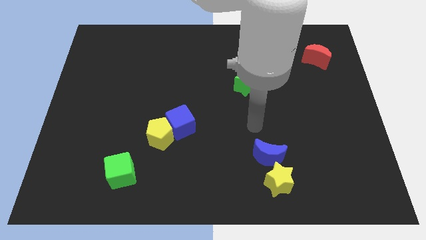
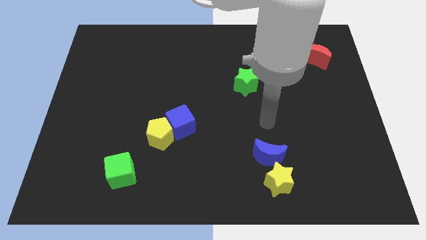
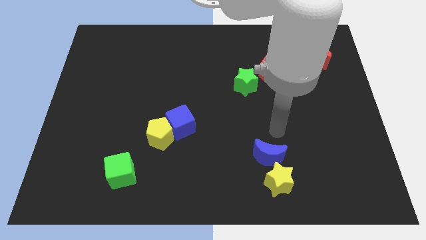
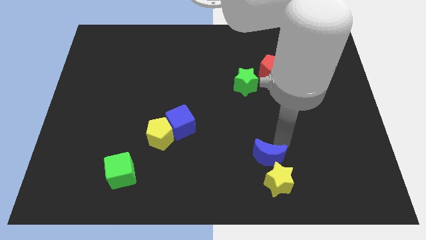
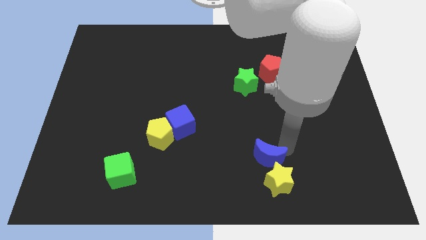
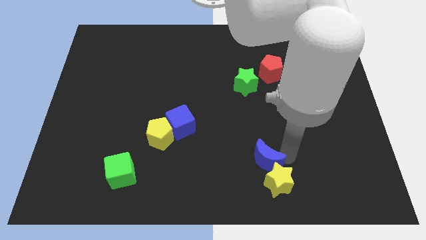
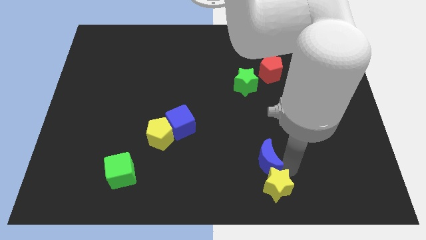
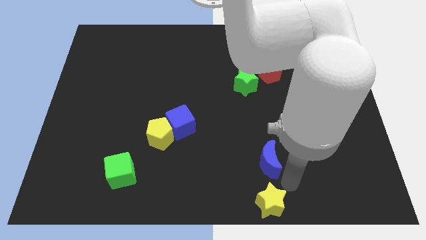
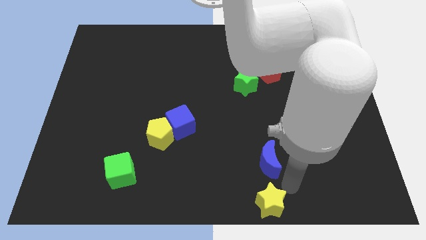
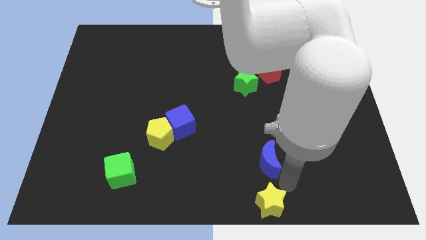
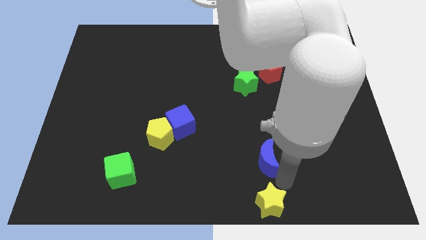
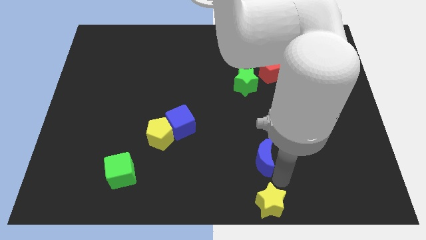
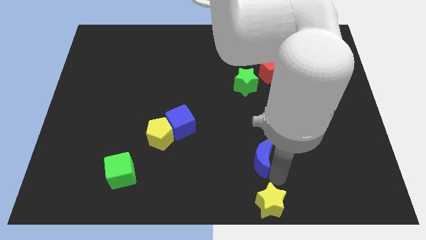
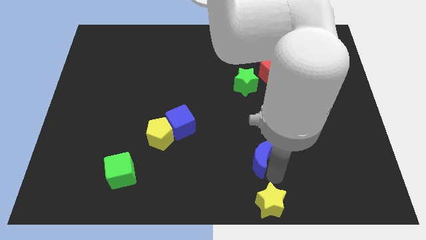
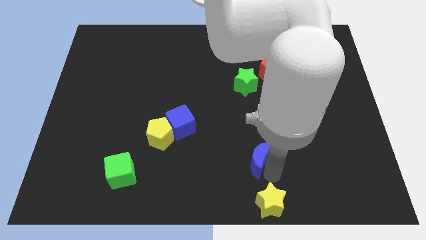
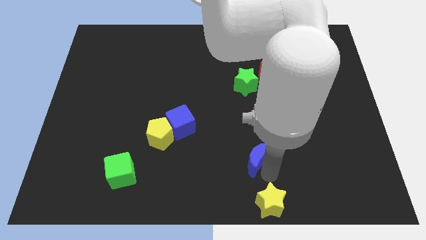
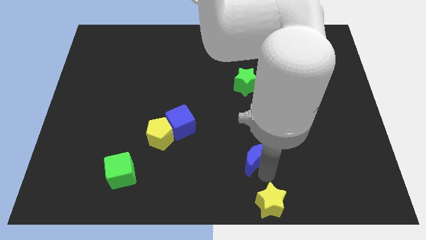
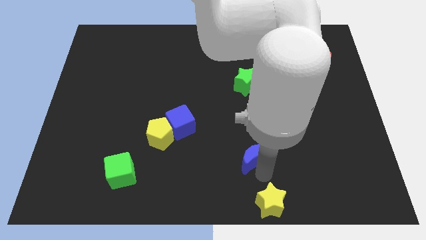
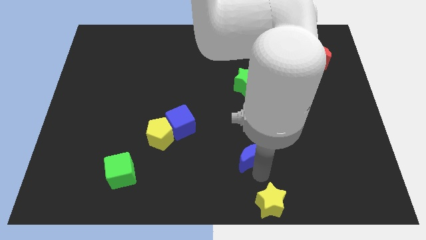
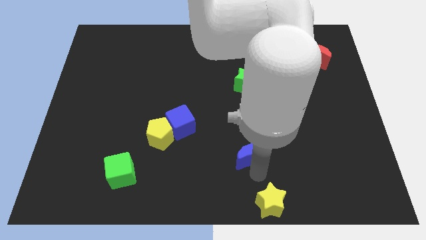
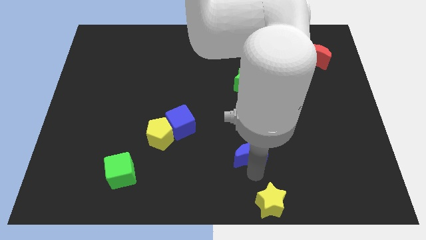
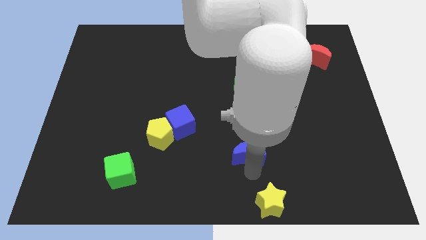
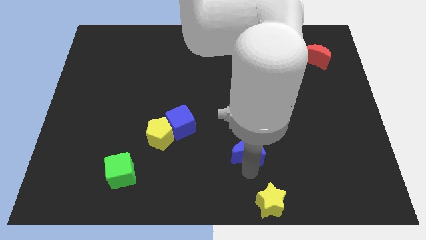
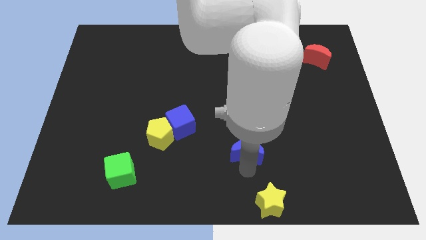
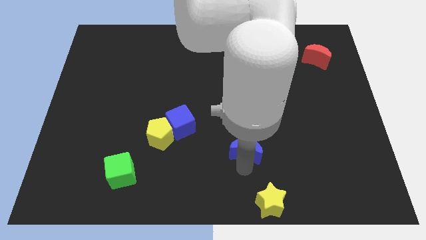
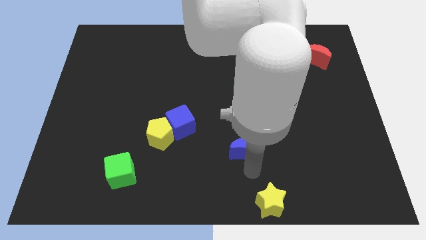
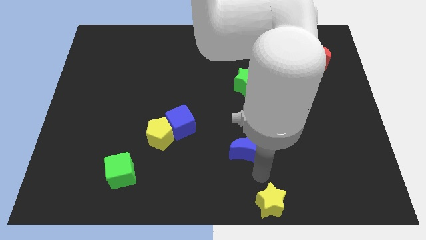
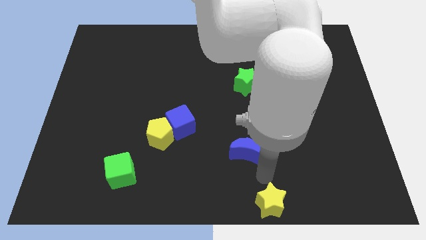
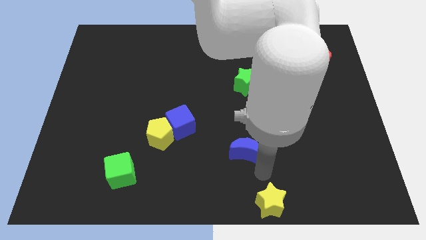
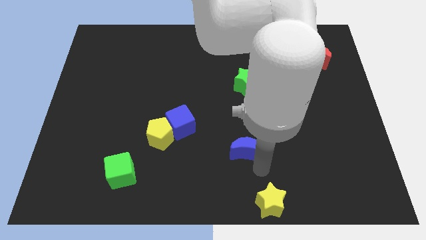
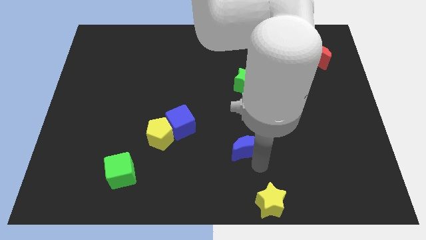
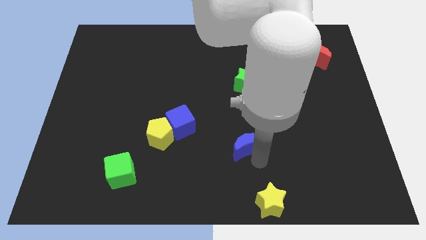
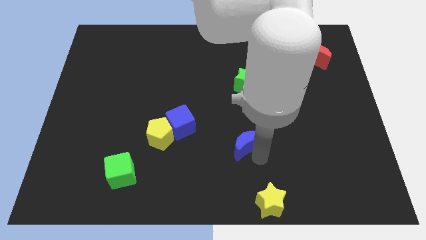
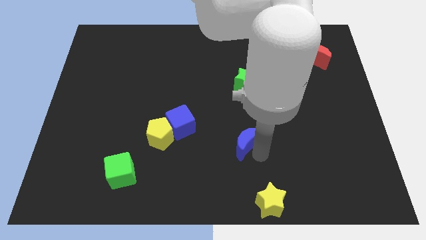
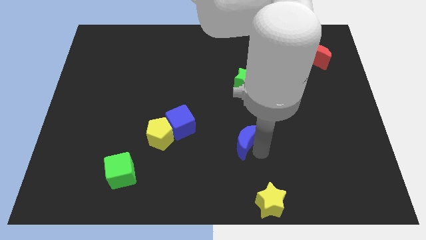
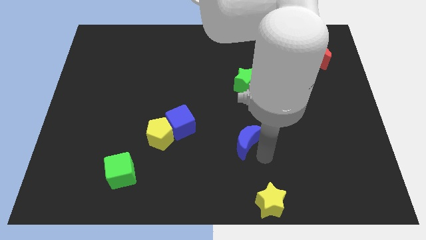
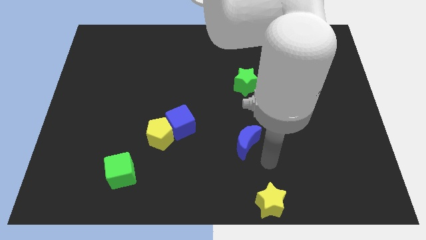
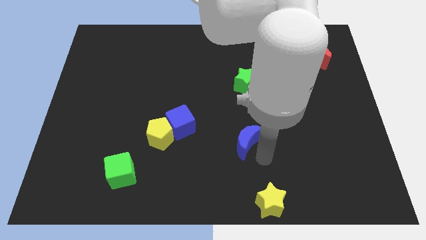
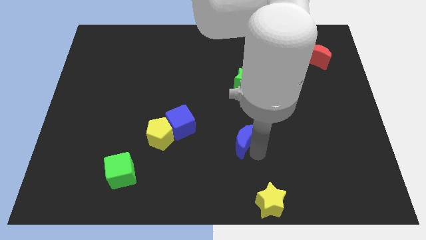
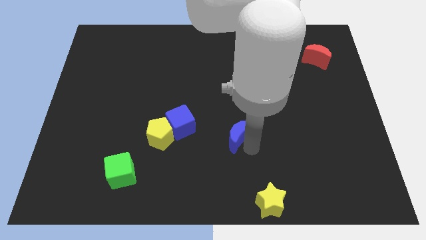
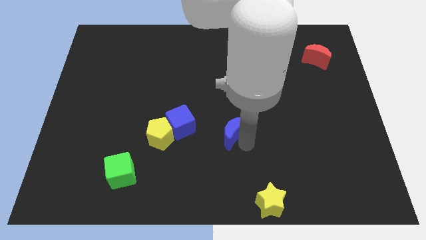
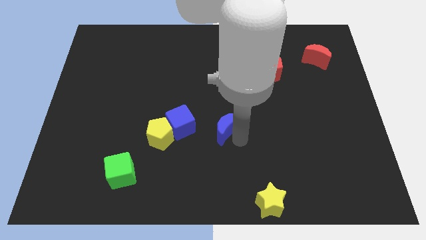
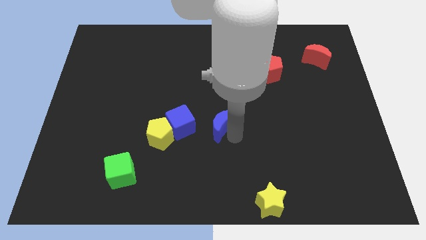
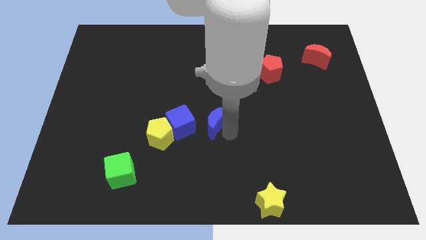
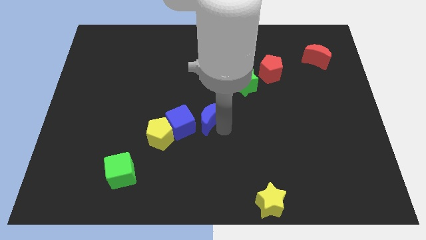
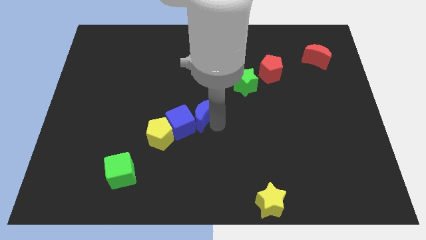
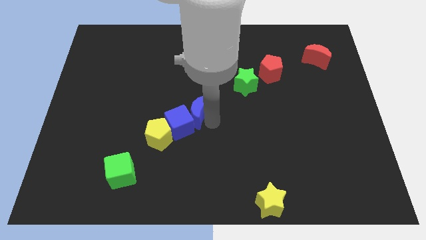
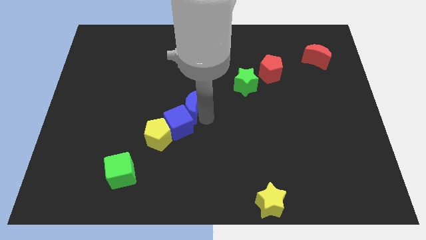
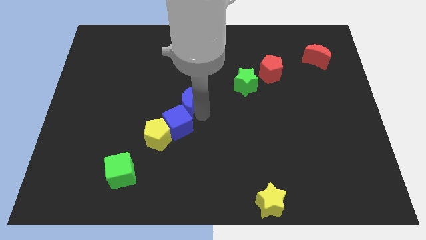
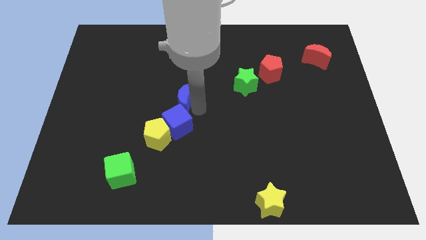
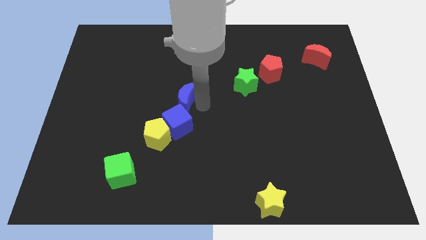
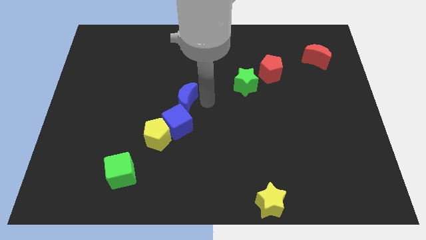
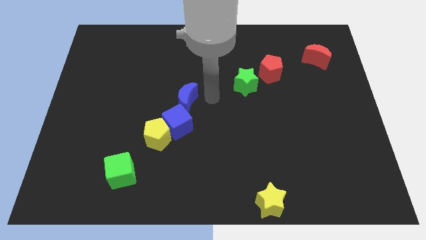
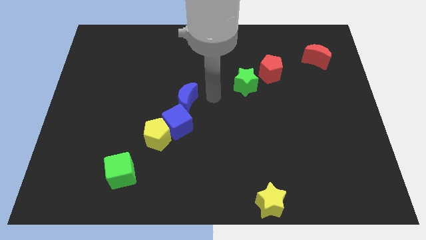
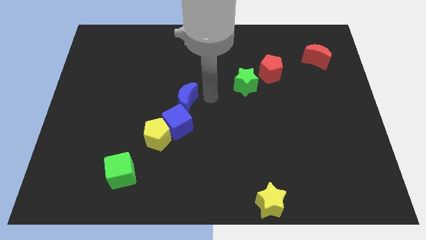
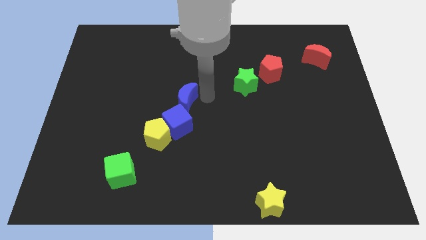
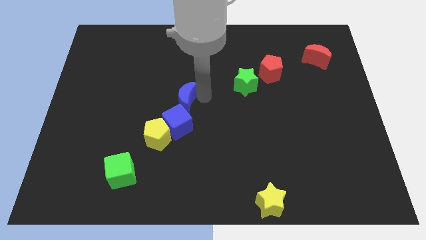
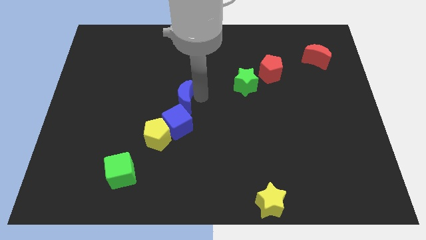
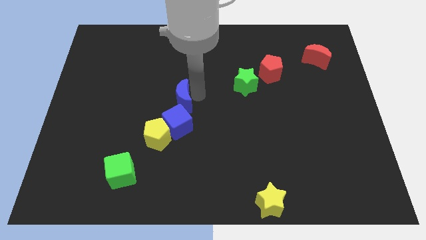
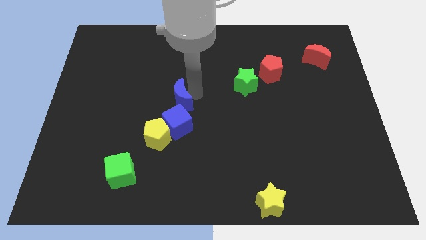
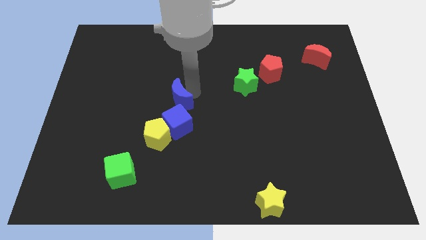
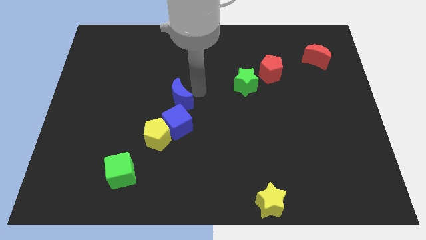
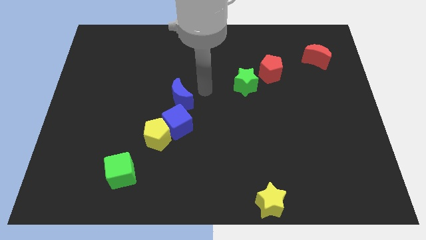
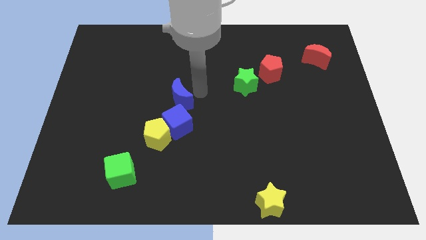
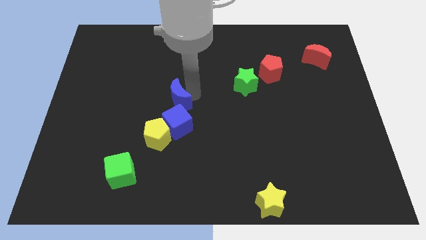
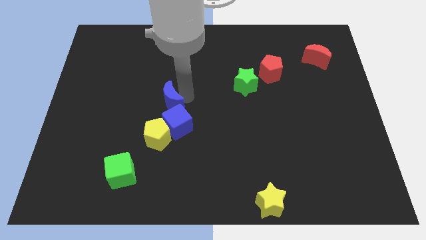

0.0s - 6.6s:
put the blue moon to the top left of the blue cube
